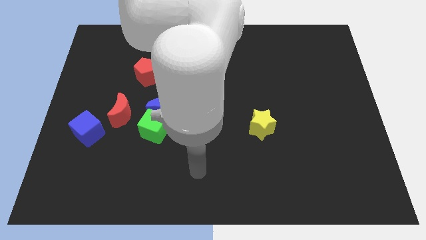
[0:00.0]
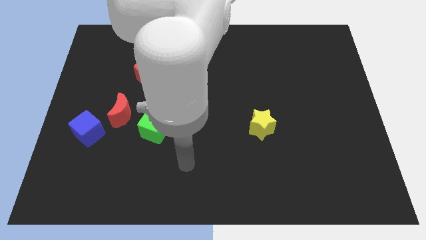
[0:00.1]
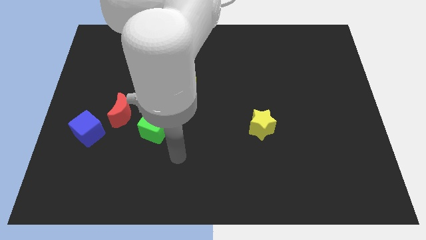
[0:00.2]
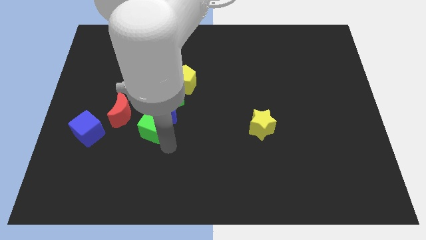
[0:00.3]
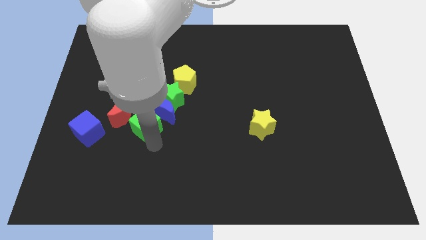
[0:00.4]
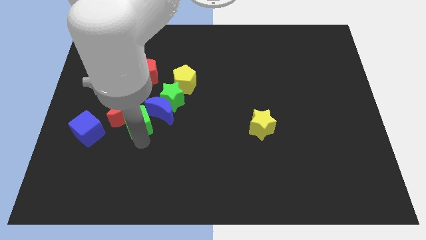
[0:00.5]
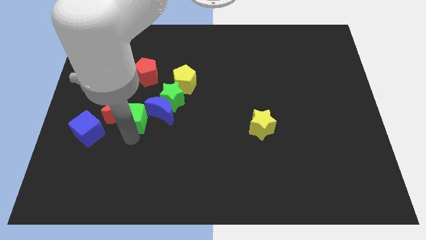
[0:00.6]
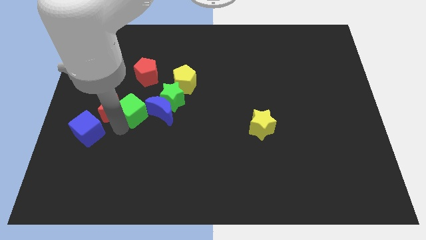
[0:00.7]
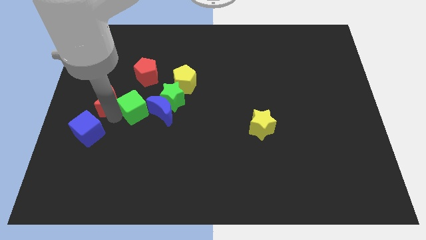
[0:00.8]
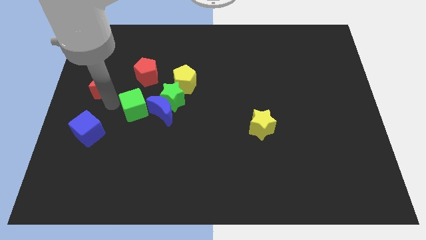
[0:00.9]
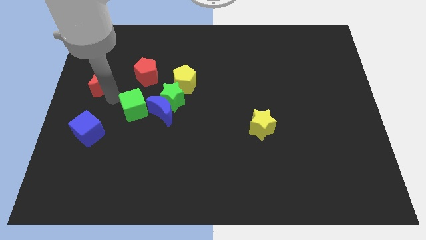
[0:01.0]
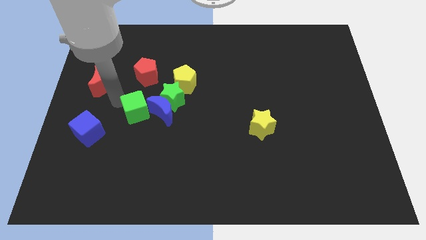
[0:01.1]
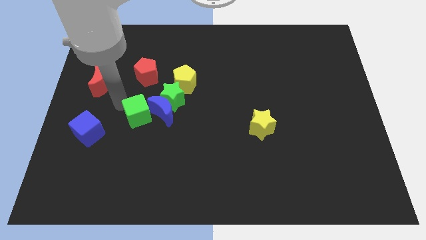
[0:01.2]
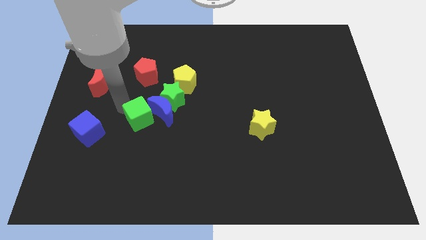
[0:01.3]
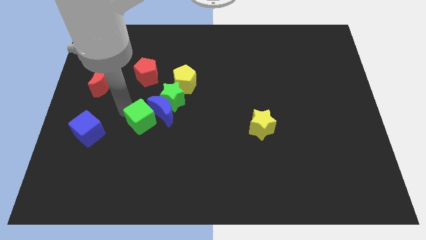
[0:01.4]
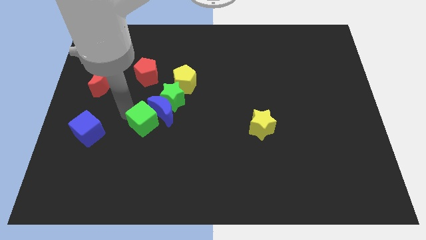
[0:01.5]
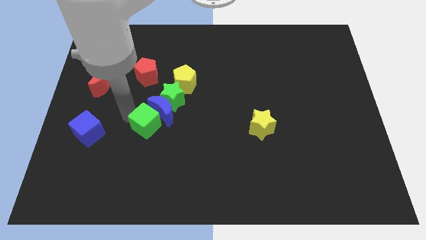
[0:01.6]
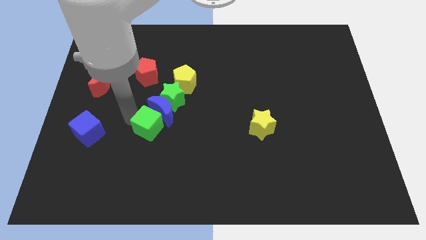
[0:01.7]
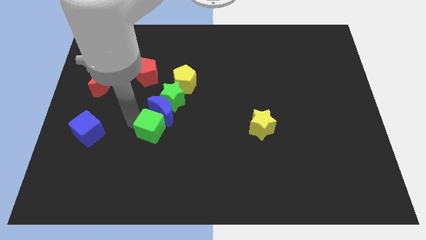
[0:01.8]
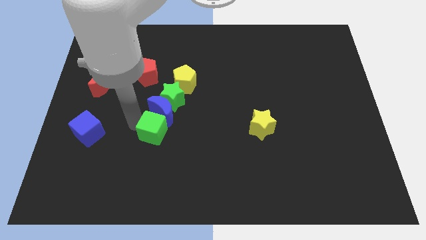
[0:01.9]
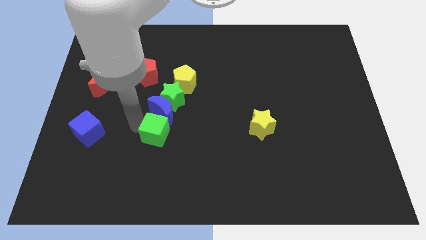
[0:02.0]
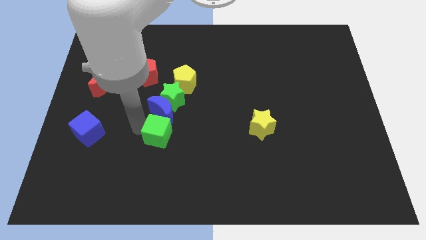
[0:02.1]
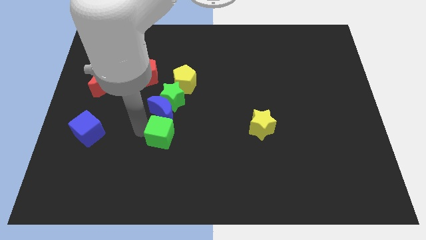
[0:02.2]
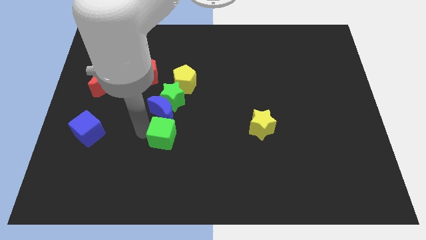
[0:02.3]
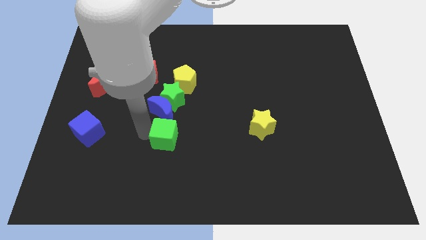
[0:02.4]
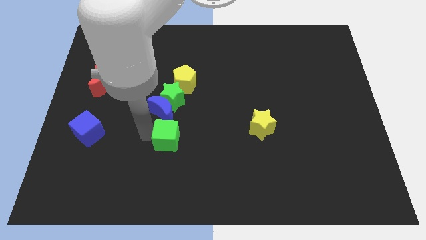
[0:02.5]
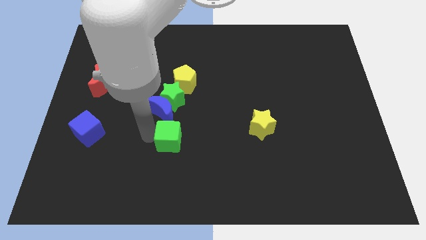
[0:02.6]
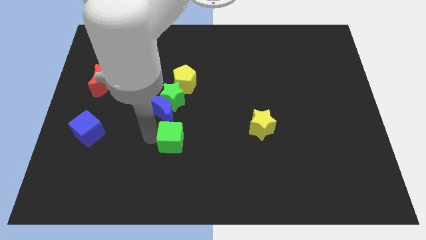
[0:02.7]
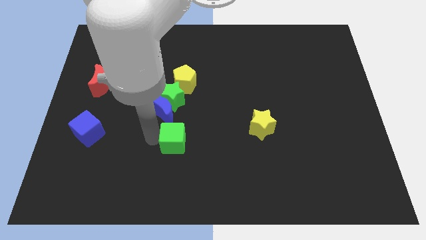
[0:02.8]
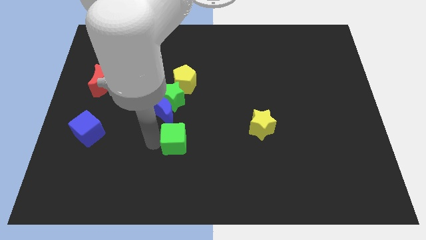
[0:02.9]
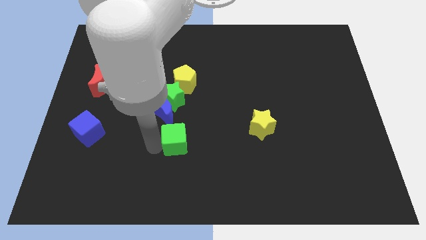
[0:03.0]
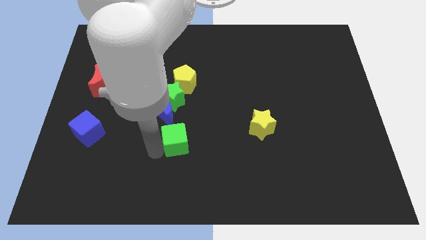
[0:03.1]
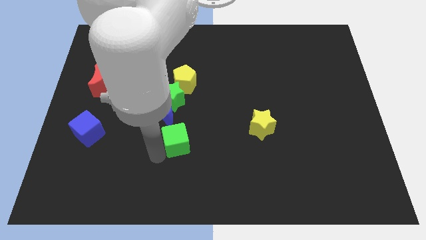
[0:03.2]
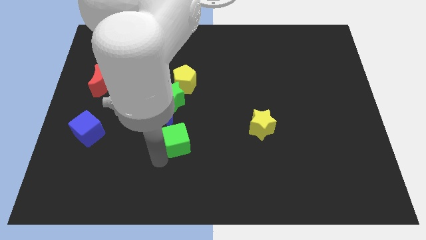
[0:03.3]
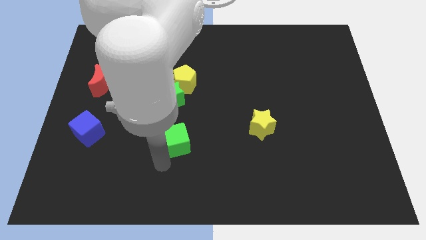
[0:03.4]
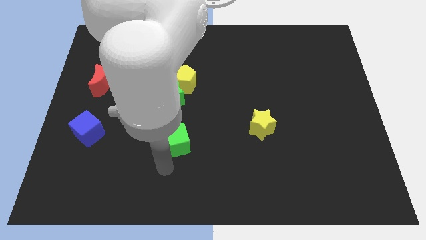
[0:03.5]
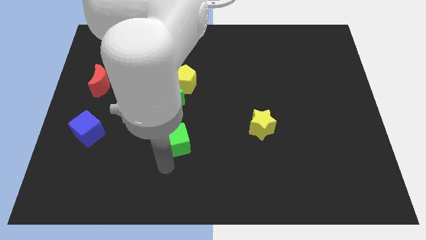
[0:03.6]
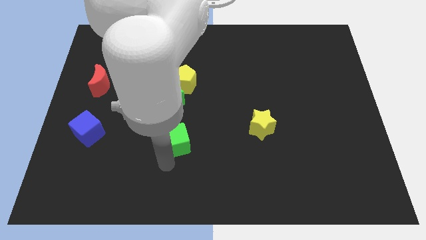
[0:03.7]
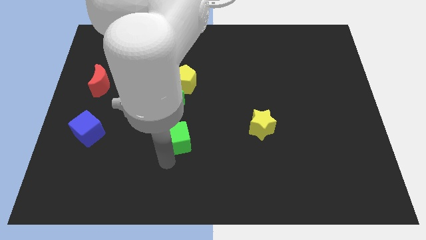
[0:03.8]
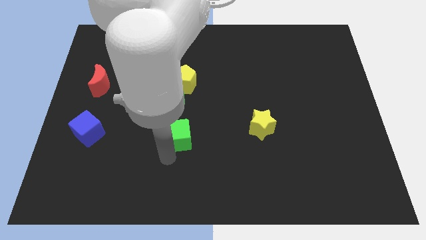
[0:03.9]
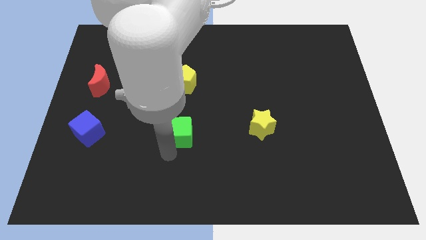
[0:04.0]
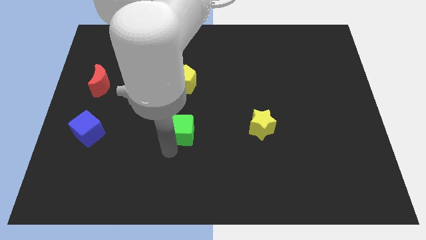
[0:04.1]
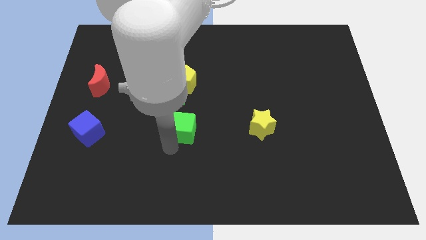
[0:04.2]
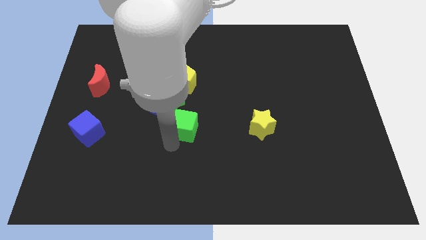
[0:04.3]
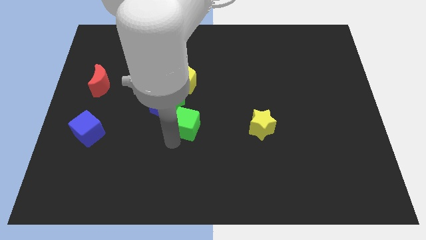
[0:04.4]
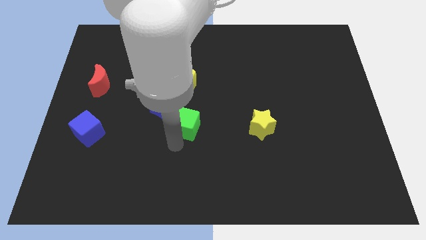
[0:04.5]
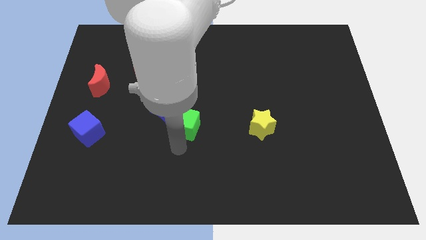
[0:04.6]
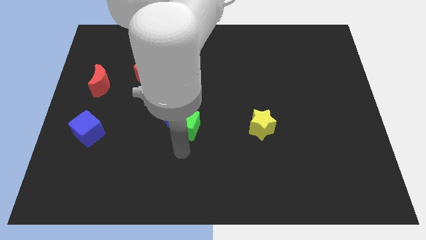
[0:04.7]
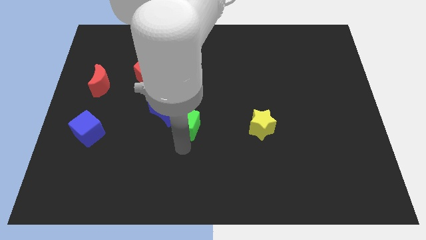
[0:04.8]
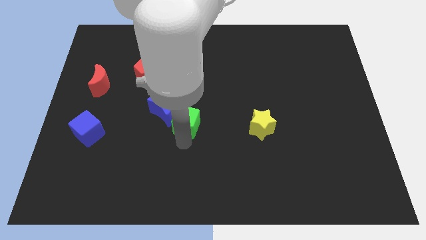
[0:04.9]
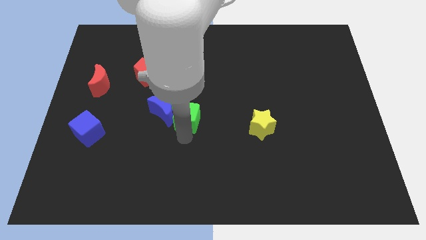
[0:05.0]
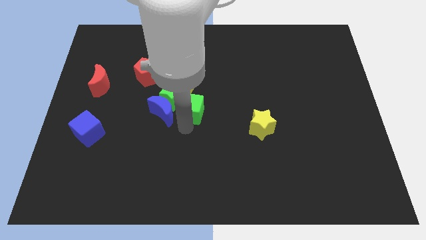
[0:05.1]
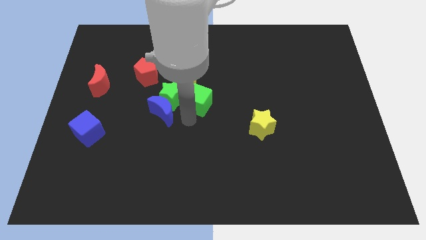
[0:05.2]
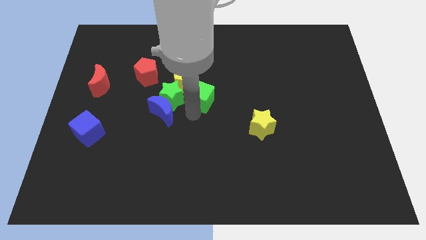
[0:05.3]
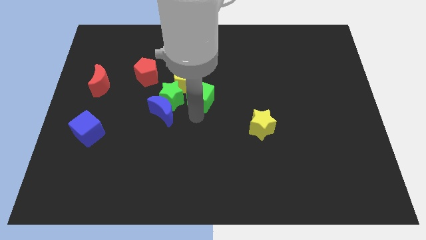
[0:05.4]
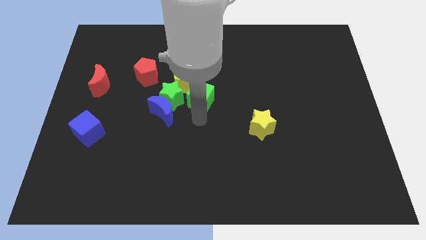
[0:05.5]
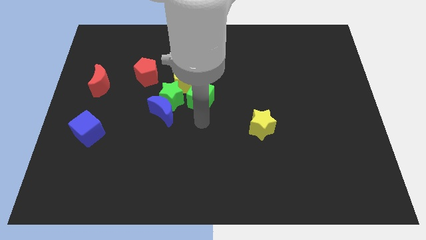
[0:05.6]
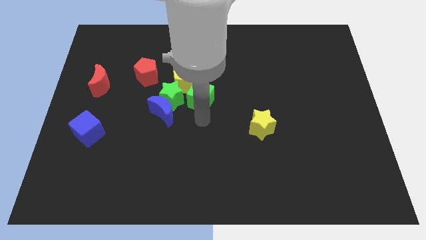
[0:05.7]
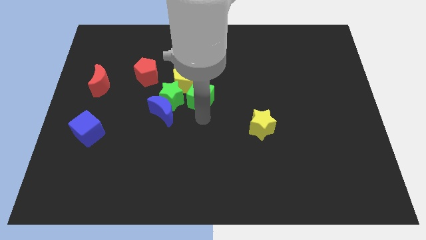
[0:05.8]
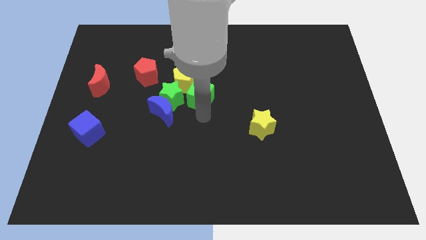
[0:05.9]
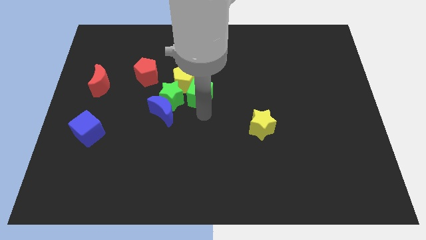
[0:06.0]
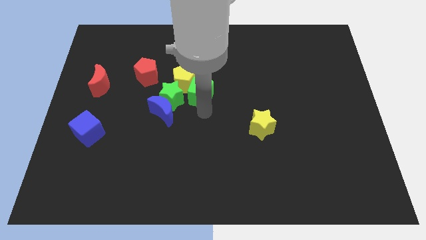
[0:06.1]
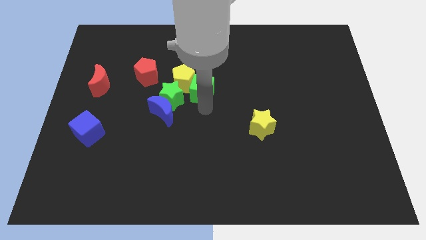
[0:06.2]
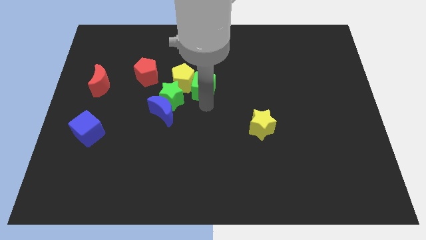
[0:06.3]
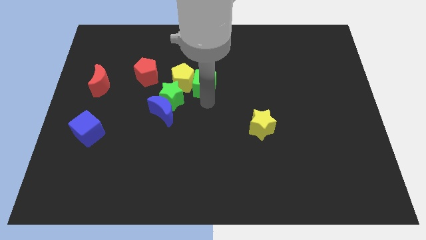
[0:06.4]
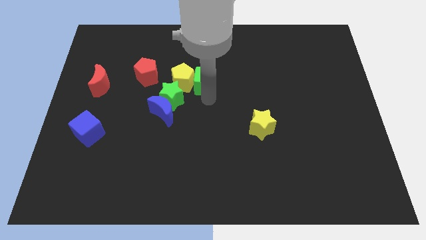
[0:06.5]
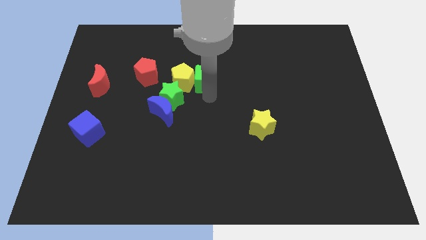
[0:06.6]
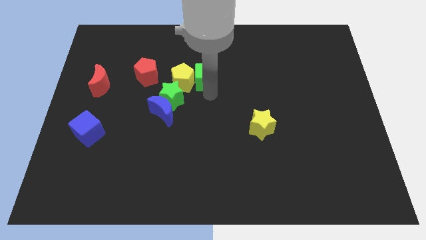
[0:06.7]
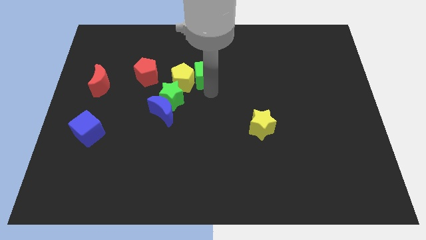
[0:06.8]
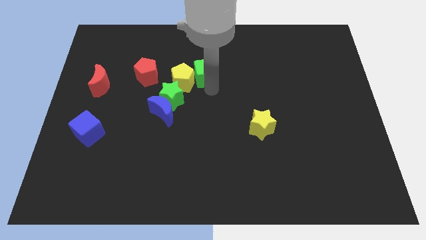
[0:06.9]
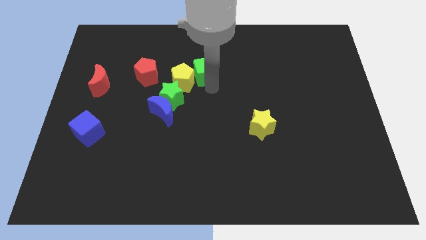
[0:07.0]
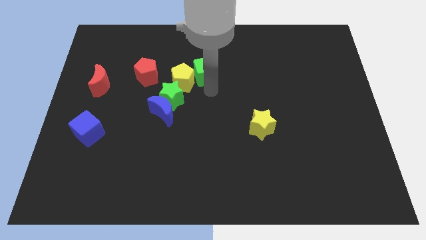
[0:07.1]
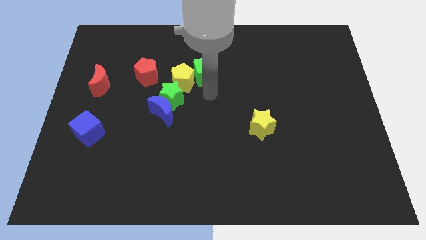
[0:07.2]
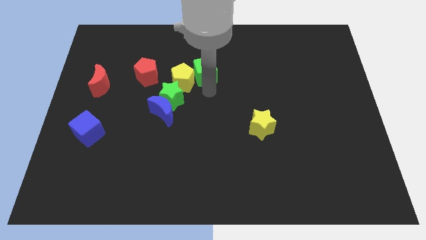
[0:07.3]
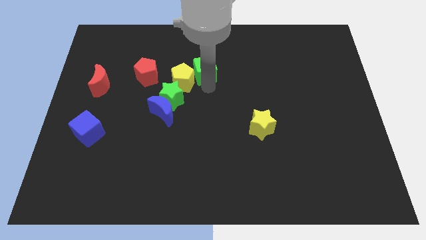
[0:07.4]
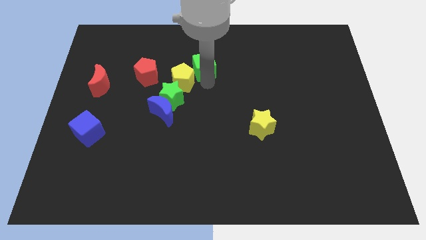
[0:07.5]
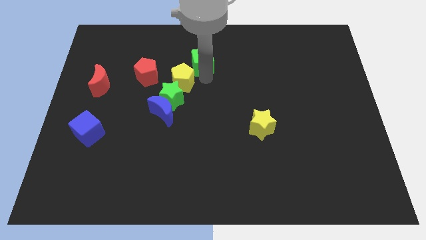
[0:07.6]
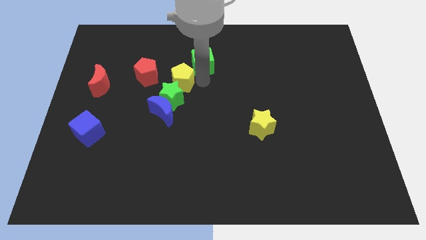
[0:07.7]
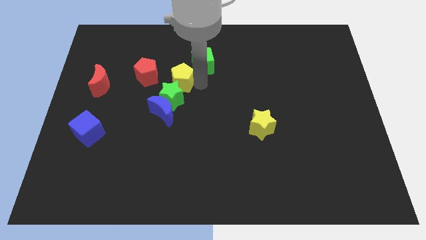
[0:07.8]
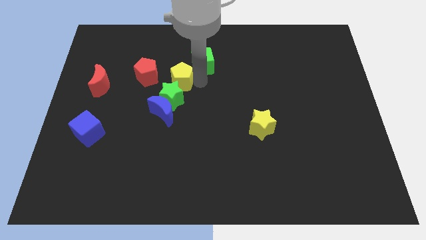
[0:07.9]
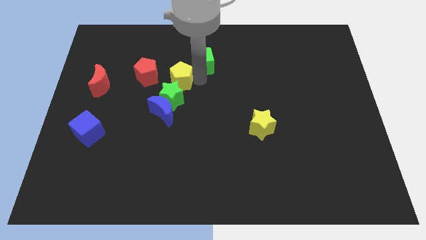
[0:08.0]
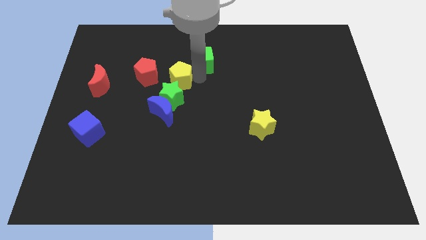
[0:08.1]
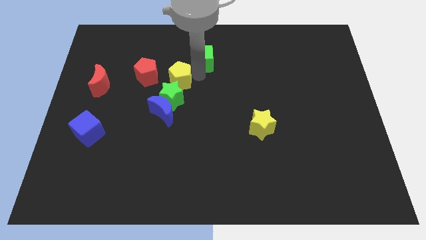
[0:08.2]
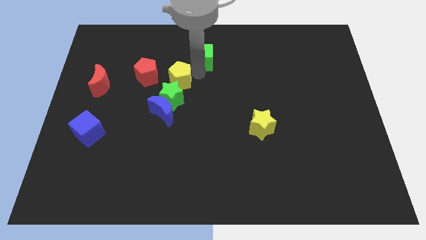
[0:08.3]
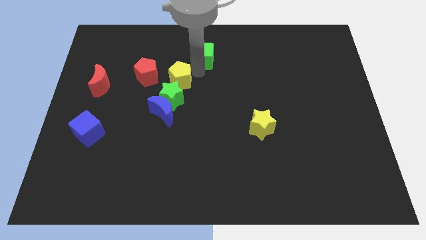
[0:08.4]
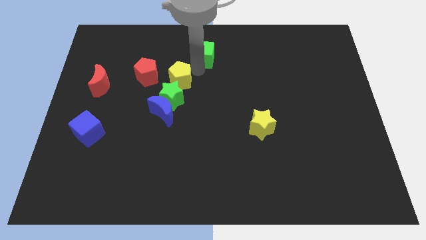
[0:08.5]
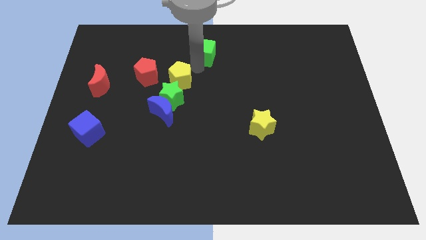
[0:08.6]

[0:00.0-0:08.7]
move the green cube to the top
